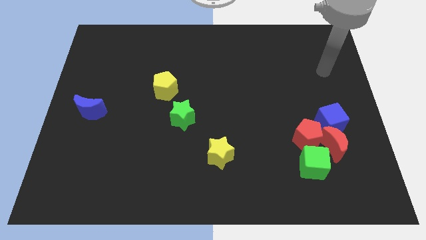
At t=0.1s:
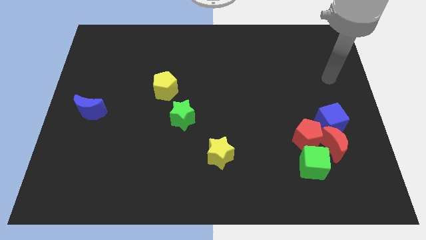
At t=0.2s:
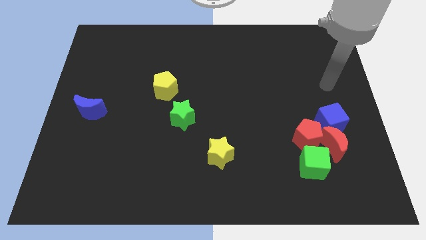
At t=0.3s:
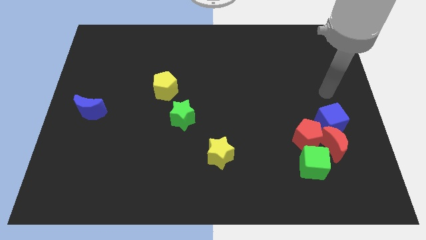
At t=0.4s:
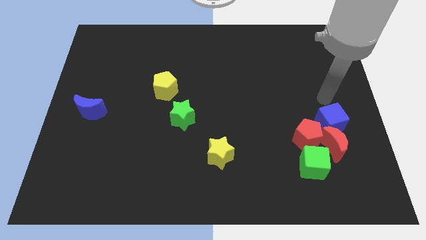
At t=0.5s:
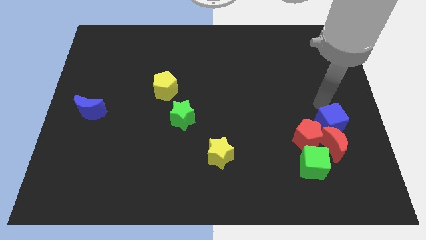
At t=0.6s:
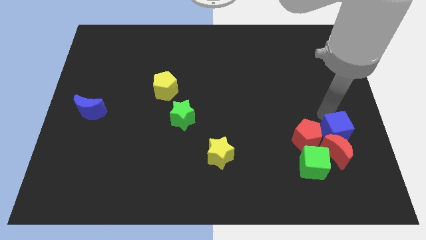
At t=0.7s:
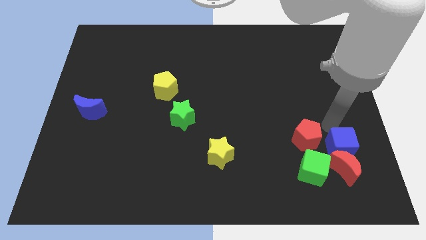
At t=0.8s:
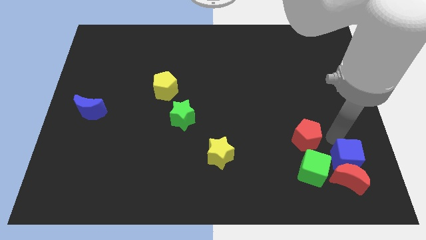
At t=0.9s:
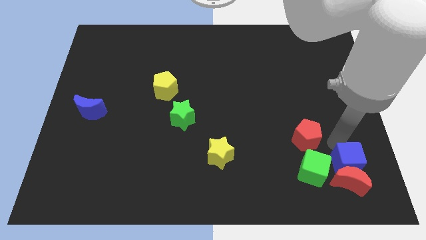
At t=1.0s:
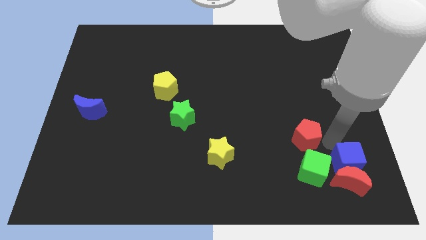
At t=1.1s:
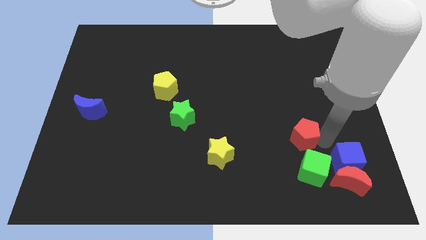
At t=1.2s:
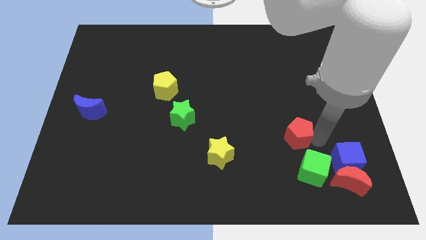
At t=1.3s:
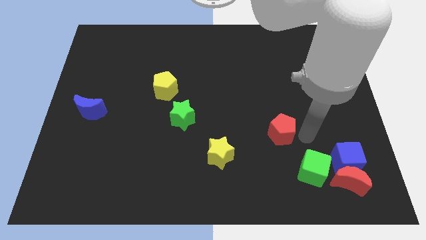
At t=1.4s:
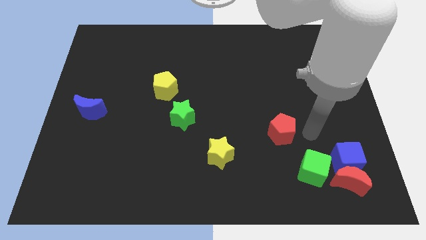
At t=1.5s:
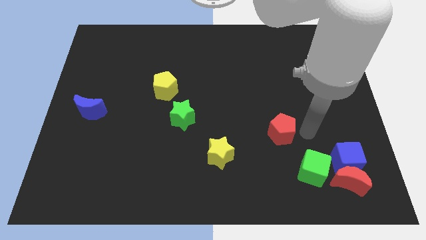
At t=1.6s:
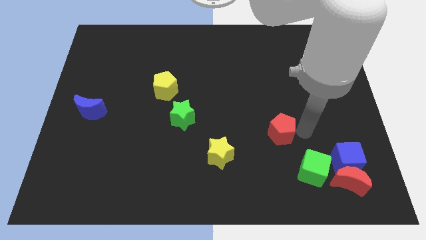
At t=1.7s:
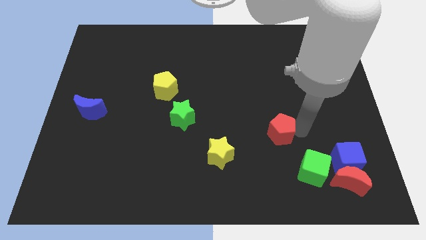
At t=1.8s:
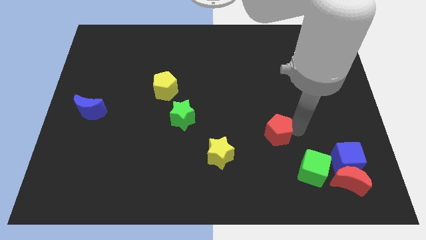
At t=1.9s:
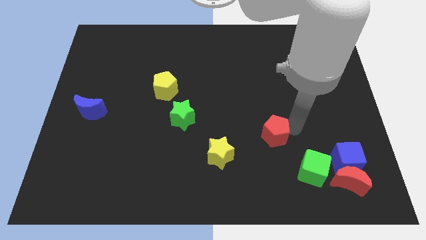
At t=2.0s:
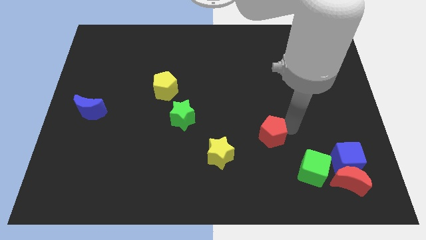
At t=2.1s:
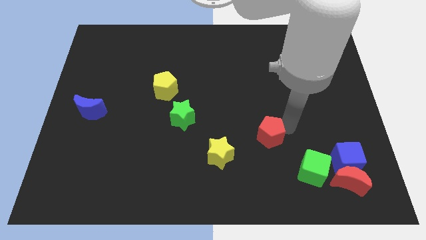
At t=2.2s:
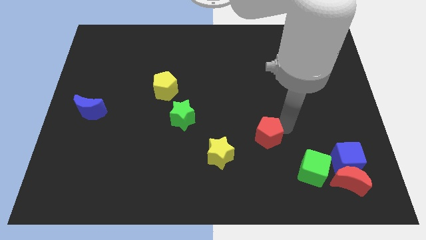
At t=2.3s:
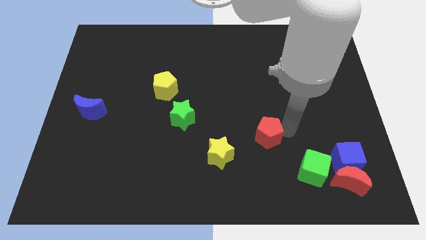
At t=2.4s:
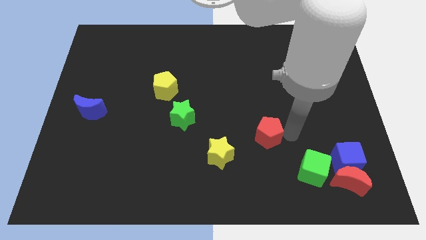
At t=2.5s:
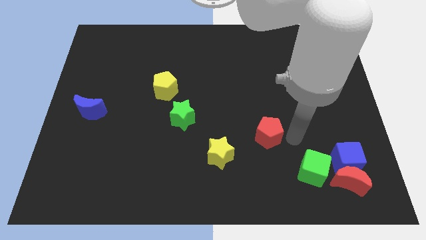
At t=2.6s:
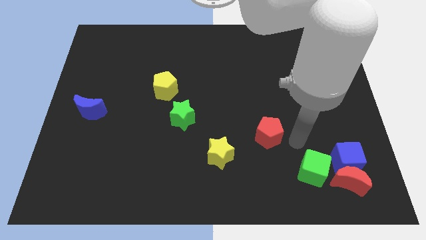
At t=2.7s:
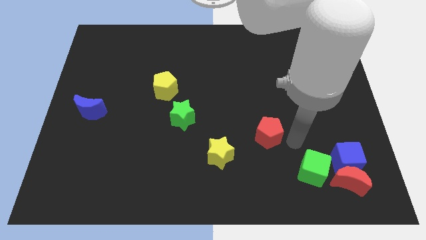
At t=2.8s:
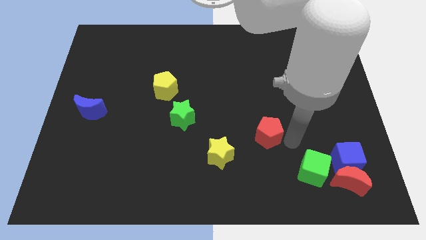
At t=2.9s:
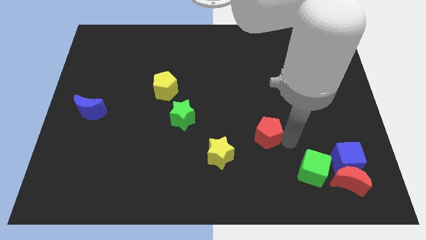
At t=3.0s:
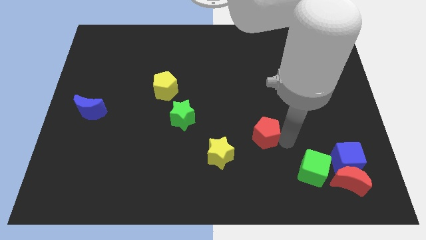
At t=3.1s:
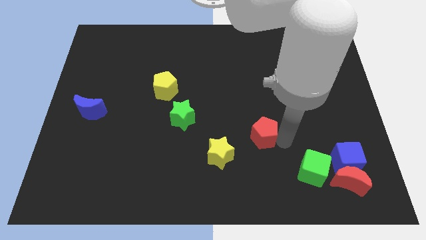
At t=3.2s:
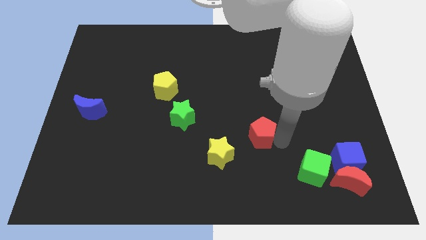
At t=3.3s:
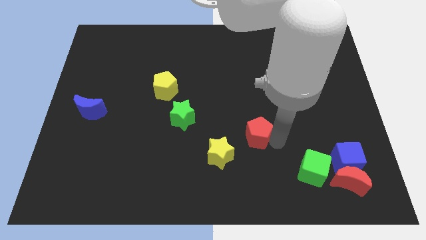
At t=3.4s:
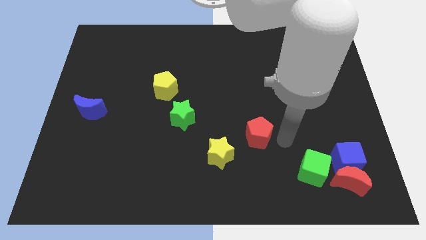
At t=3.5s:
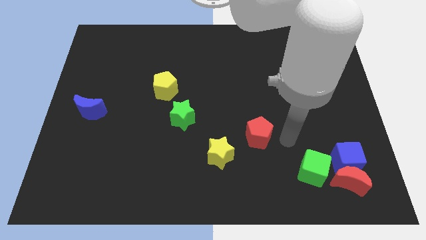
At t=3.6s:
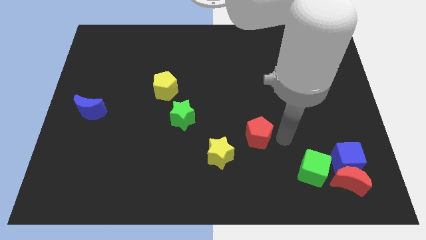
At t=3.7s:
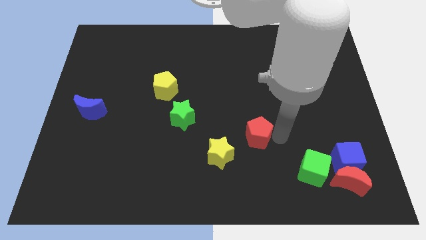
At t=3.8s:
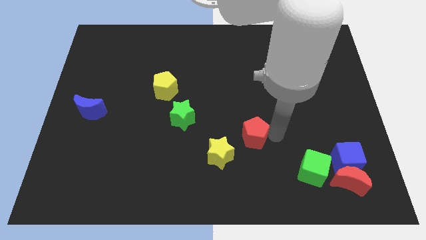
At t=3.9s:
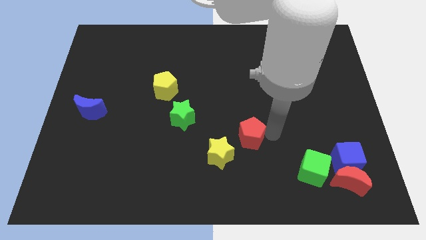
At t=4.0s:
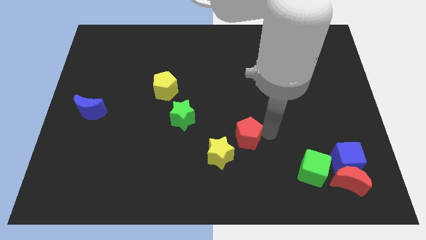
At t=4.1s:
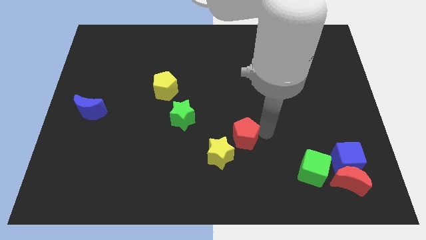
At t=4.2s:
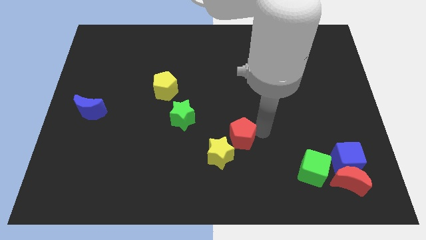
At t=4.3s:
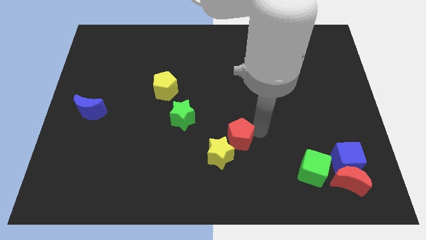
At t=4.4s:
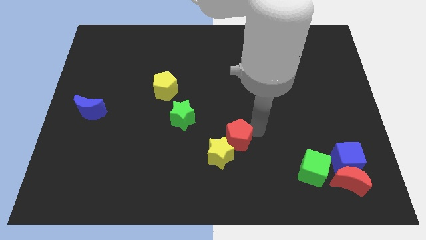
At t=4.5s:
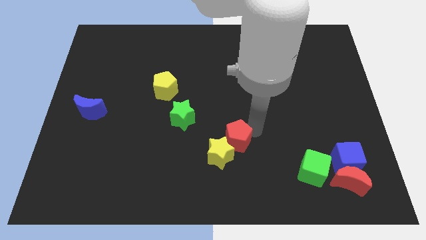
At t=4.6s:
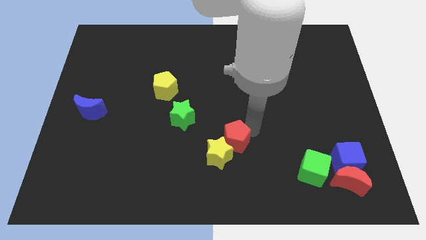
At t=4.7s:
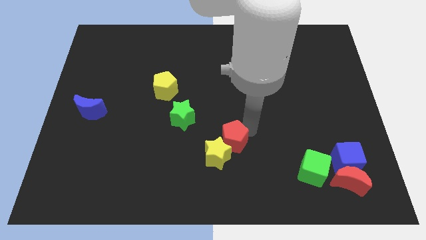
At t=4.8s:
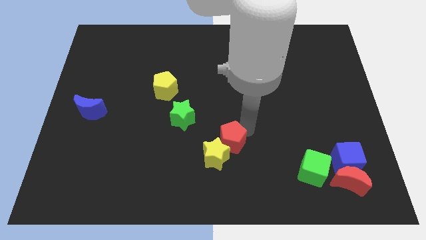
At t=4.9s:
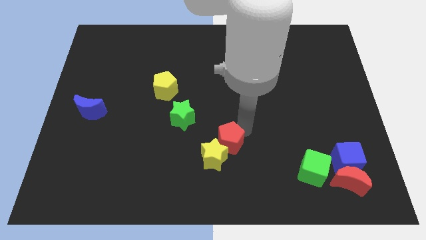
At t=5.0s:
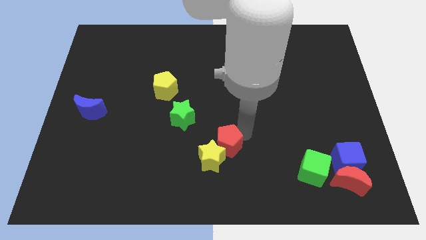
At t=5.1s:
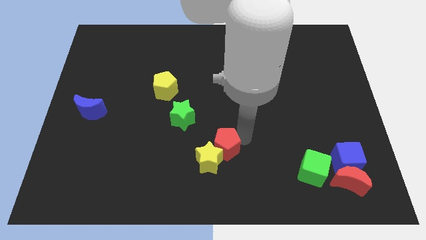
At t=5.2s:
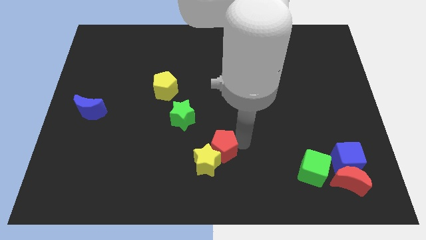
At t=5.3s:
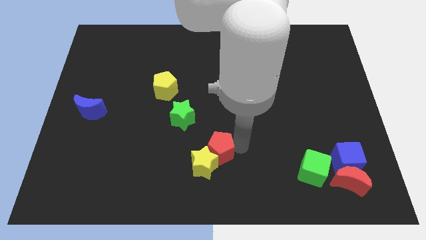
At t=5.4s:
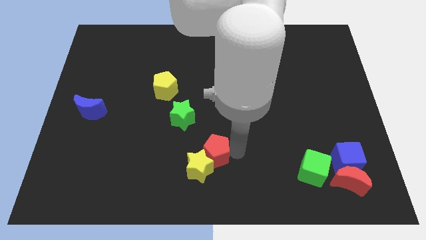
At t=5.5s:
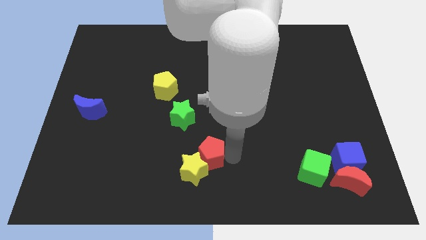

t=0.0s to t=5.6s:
push the red pentagon to the left

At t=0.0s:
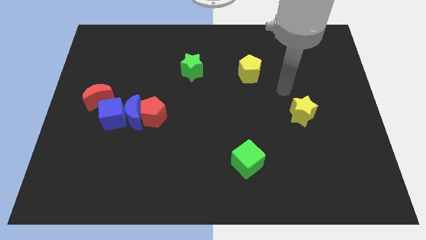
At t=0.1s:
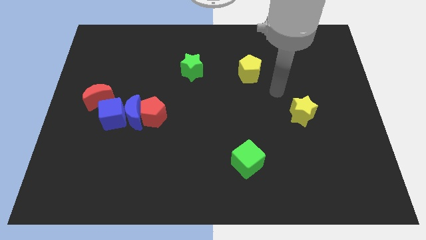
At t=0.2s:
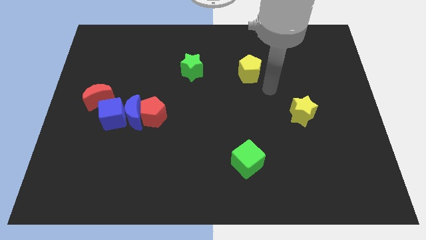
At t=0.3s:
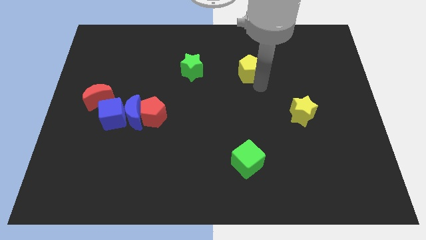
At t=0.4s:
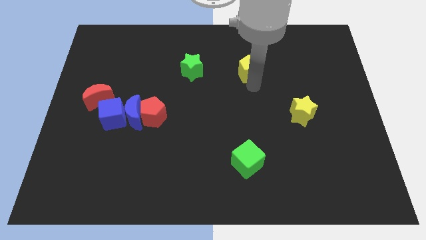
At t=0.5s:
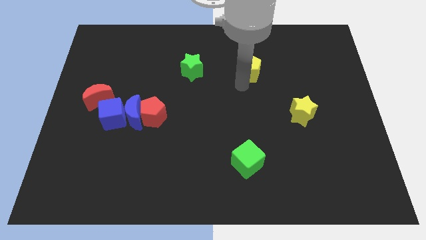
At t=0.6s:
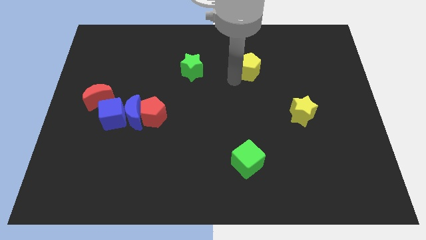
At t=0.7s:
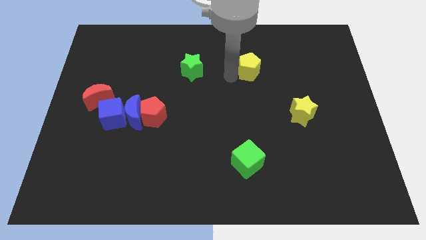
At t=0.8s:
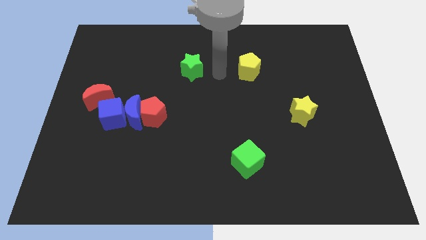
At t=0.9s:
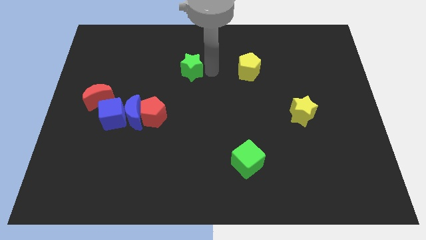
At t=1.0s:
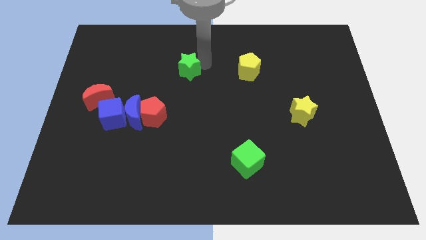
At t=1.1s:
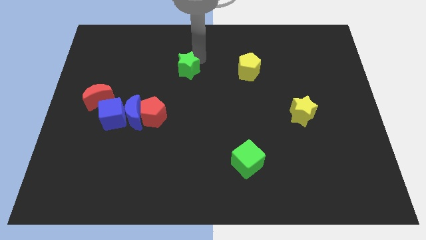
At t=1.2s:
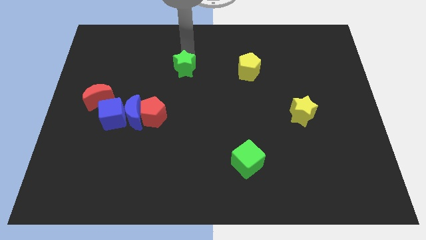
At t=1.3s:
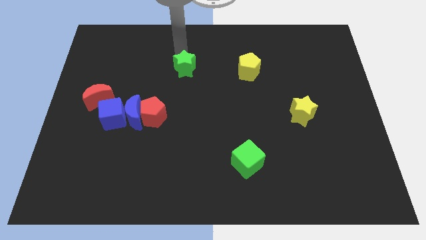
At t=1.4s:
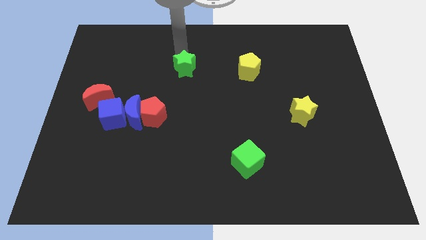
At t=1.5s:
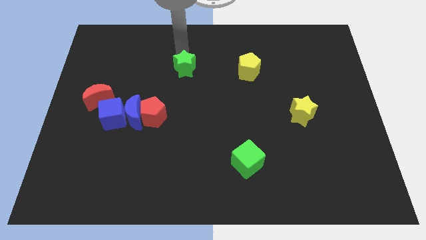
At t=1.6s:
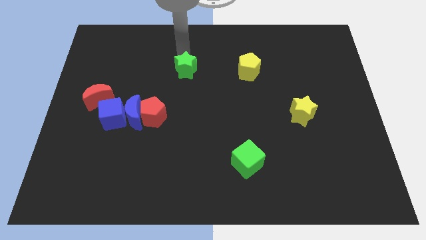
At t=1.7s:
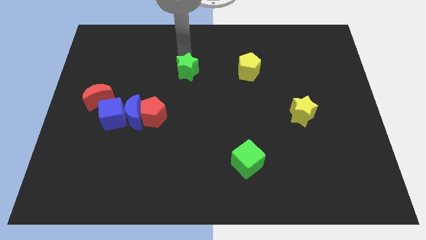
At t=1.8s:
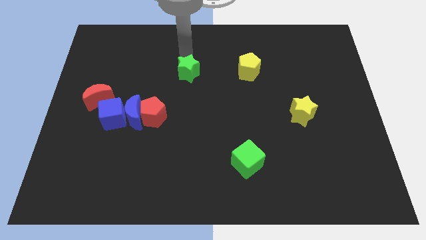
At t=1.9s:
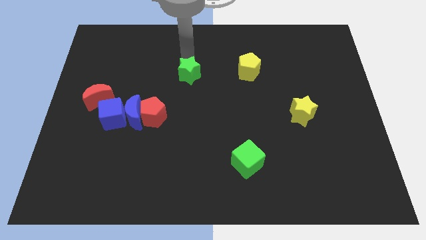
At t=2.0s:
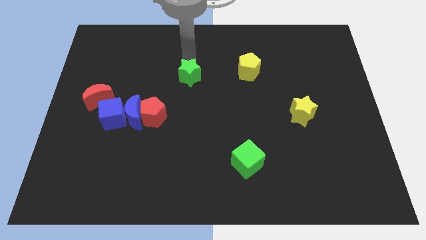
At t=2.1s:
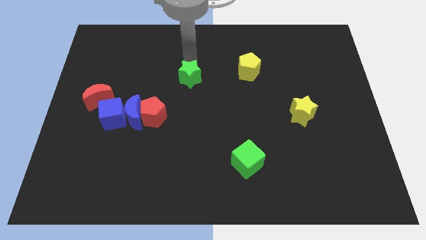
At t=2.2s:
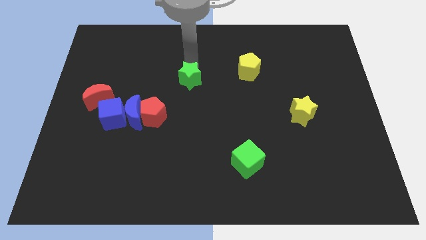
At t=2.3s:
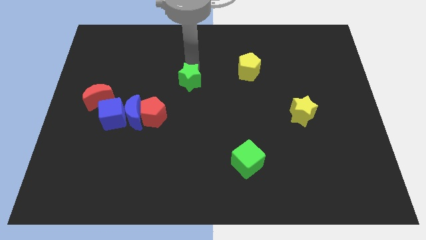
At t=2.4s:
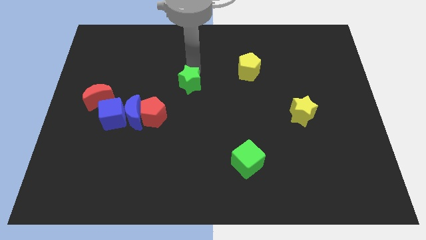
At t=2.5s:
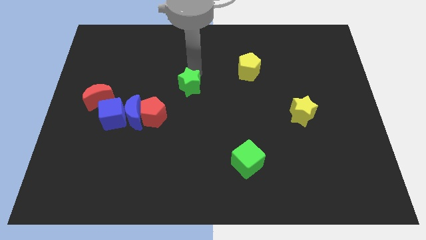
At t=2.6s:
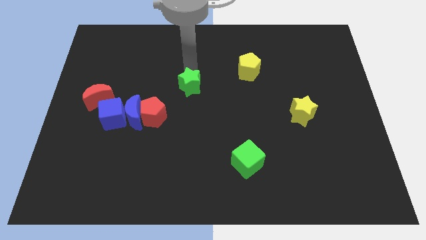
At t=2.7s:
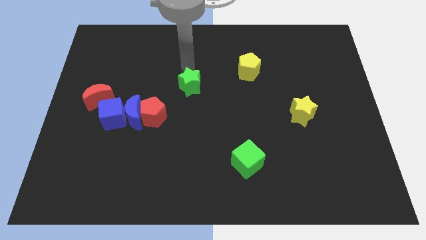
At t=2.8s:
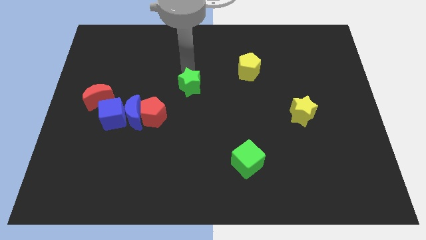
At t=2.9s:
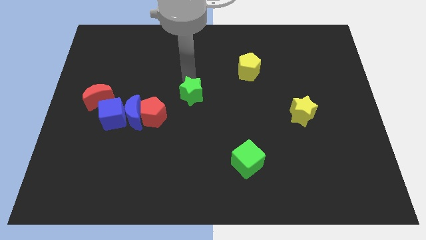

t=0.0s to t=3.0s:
slightly push the green star down
